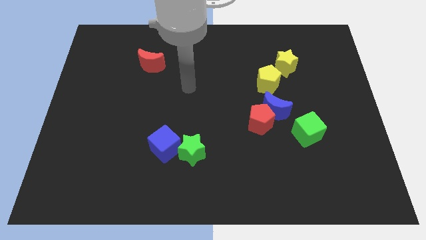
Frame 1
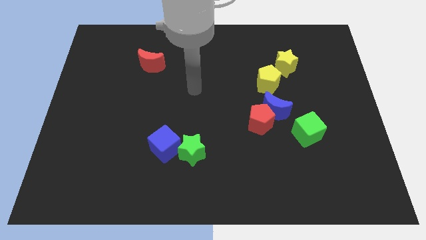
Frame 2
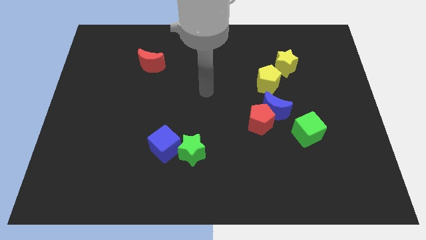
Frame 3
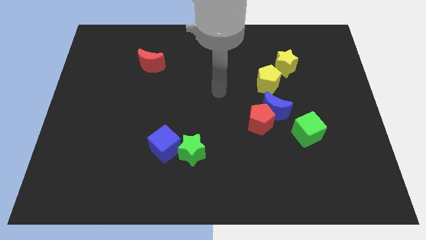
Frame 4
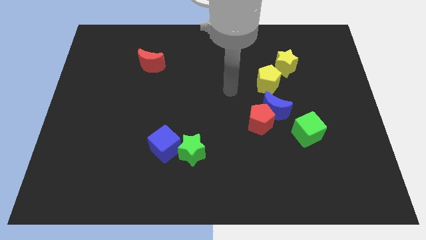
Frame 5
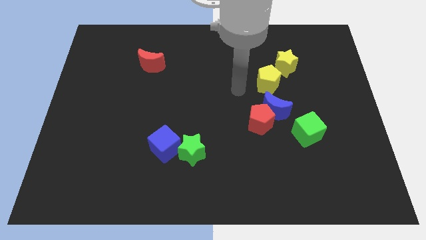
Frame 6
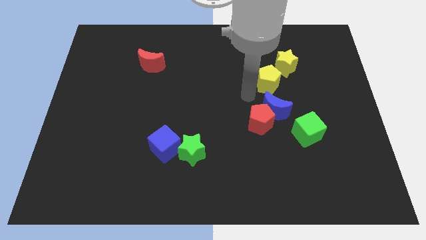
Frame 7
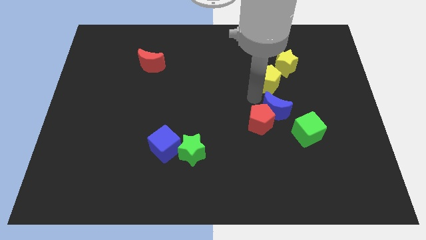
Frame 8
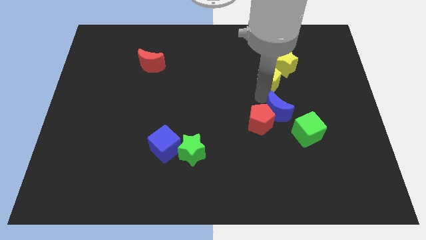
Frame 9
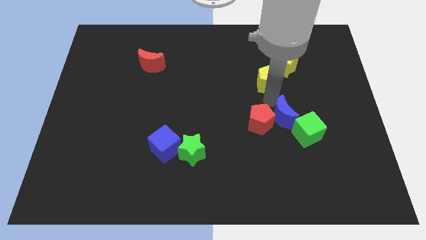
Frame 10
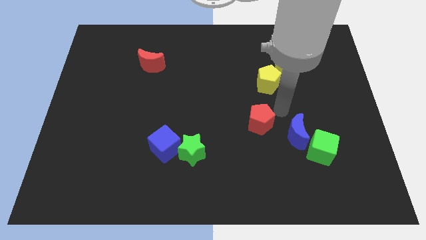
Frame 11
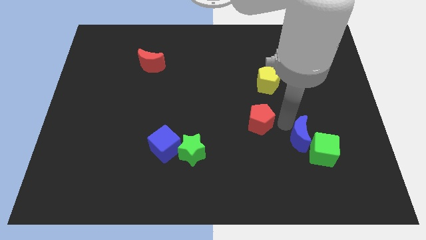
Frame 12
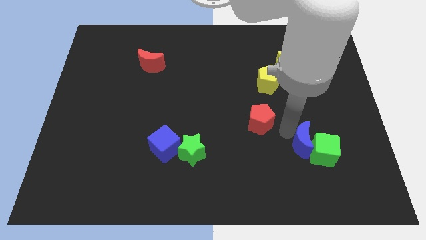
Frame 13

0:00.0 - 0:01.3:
separate the red pentagon from the blue moon

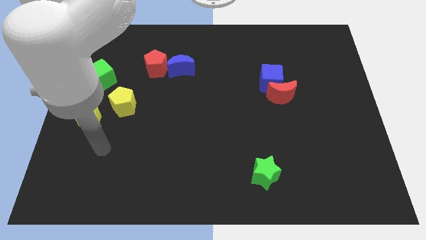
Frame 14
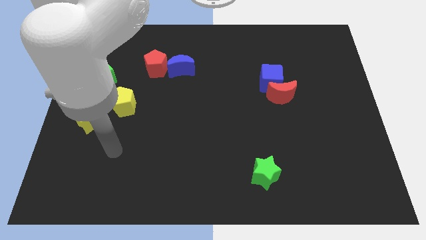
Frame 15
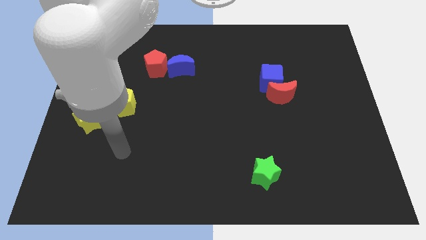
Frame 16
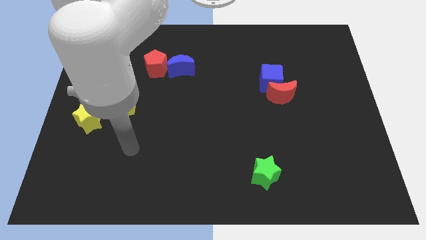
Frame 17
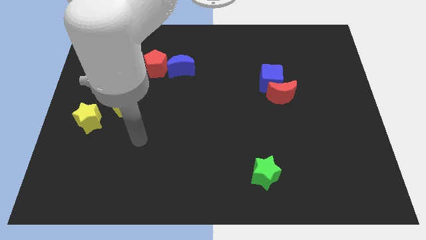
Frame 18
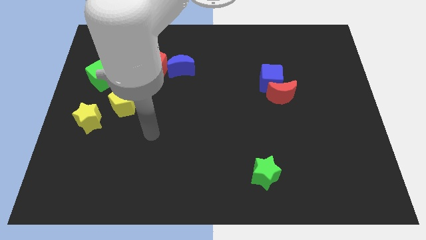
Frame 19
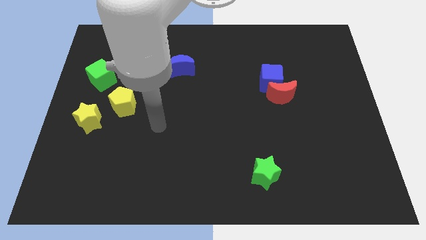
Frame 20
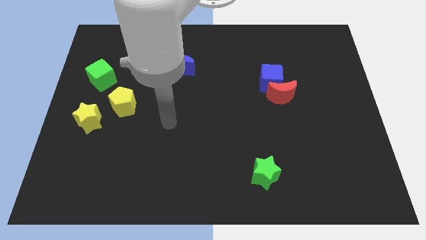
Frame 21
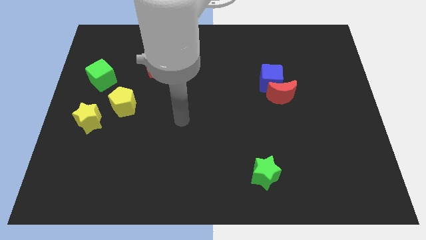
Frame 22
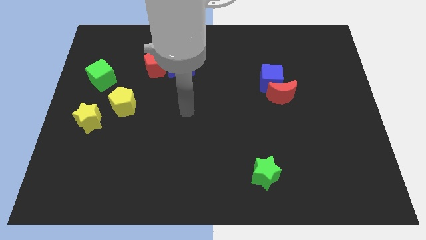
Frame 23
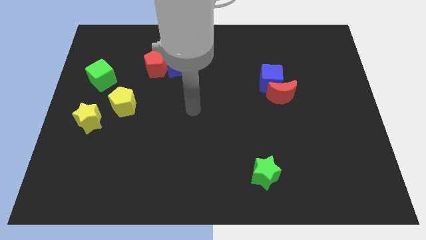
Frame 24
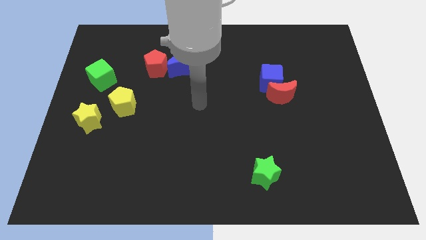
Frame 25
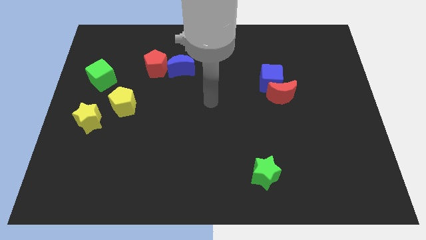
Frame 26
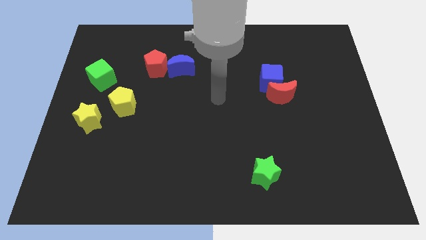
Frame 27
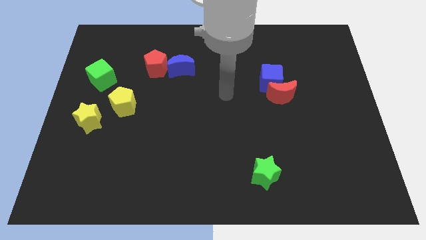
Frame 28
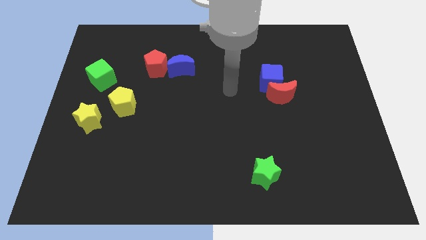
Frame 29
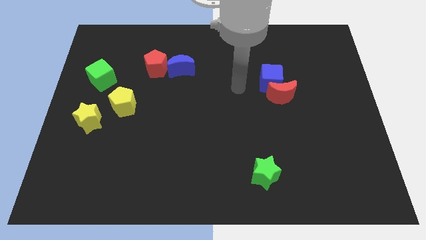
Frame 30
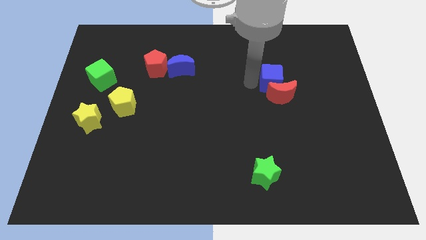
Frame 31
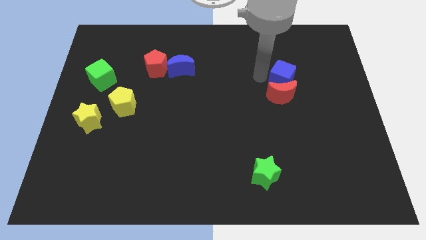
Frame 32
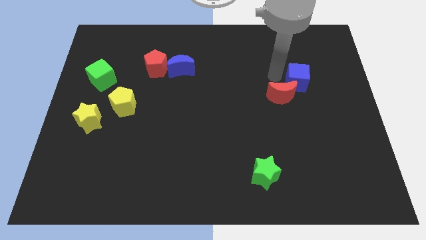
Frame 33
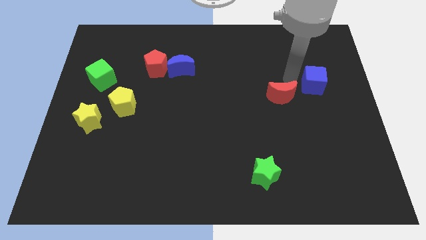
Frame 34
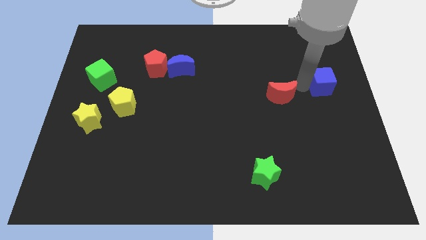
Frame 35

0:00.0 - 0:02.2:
separate the red moon from the blue cube

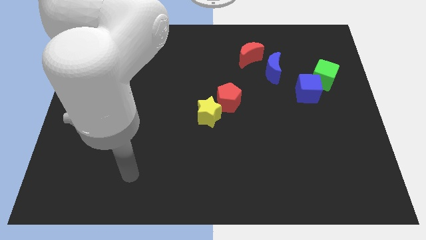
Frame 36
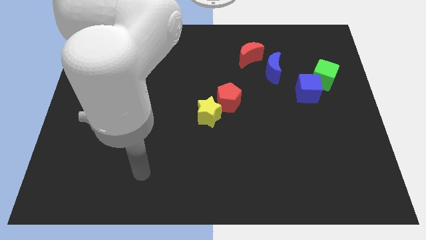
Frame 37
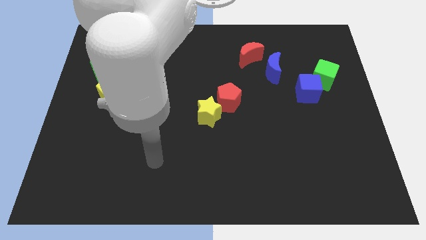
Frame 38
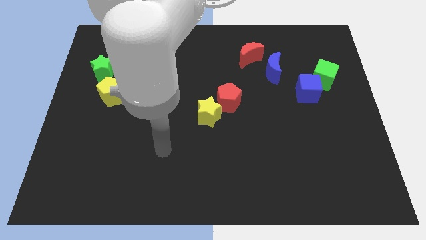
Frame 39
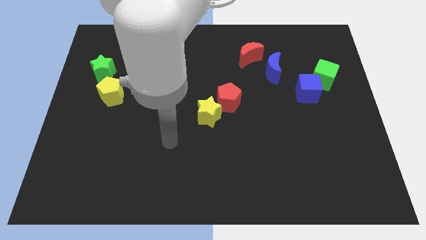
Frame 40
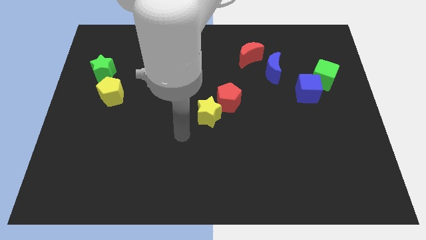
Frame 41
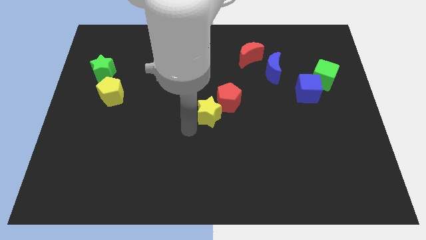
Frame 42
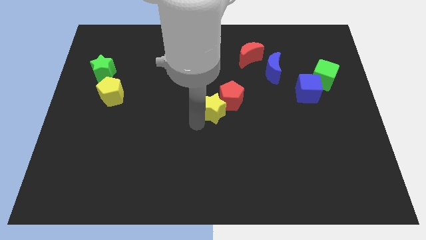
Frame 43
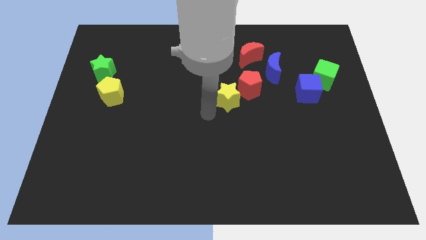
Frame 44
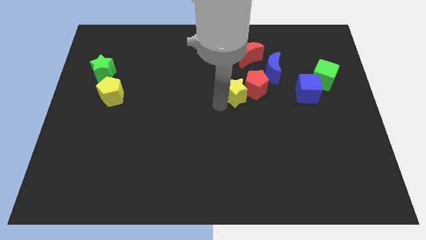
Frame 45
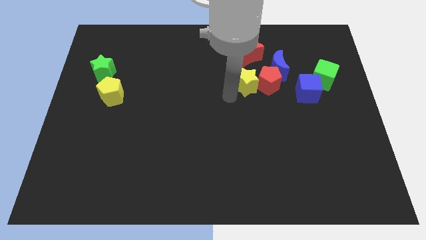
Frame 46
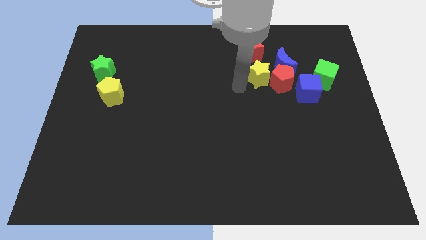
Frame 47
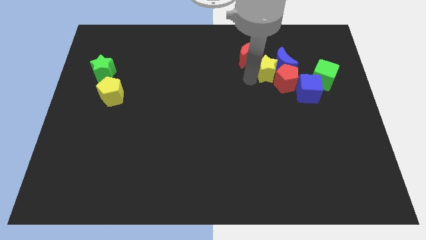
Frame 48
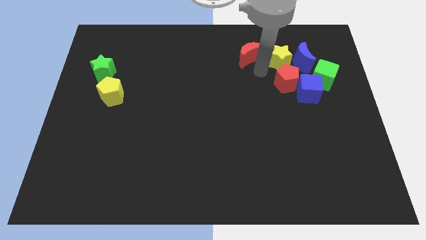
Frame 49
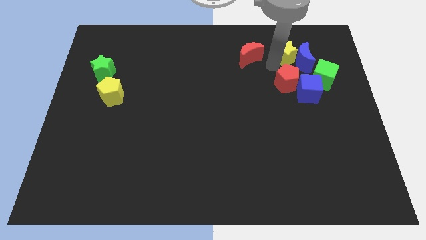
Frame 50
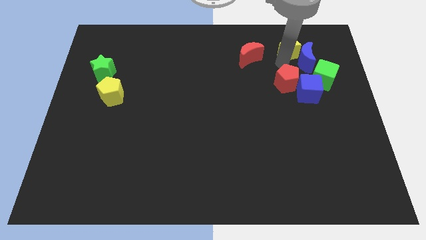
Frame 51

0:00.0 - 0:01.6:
move the red pentagon away from the yellow star

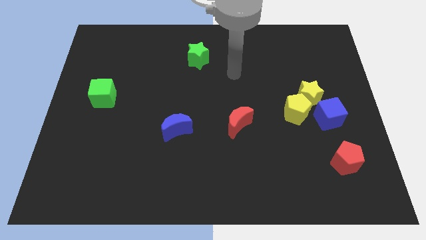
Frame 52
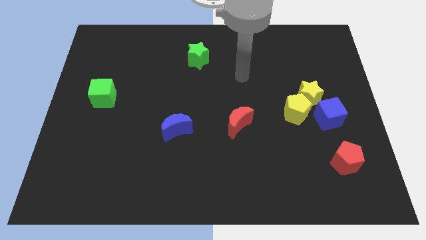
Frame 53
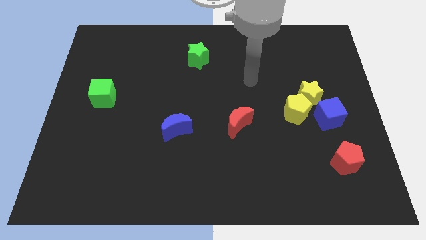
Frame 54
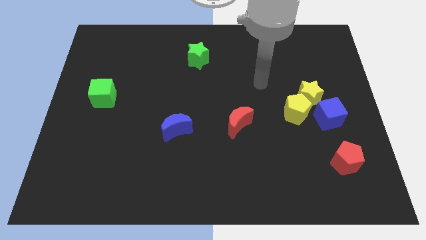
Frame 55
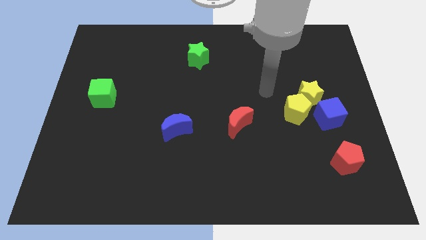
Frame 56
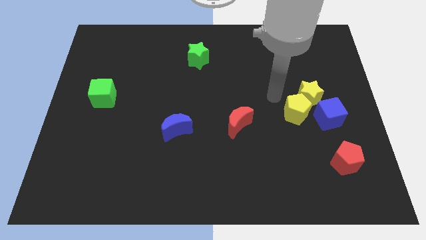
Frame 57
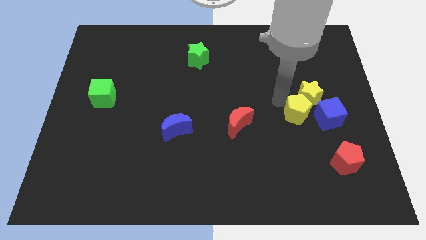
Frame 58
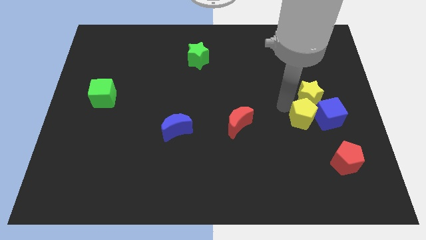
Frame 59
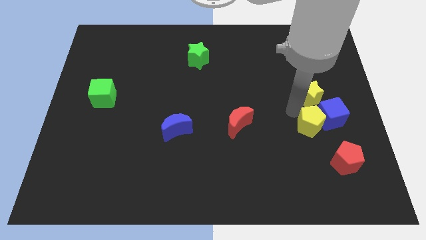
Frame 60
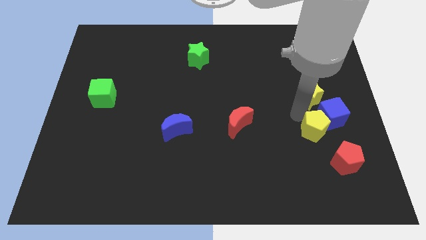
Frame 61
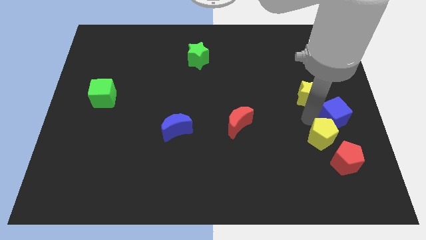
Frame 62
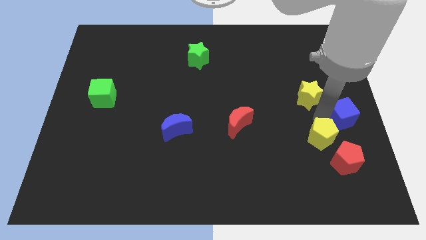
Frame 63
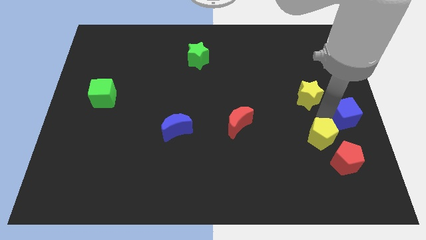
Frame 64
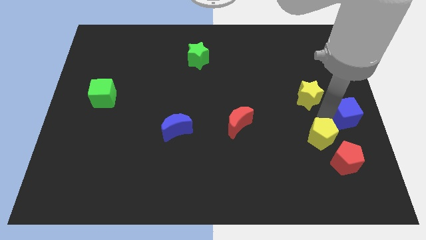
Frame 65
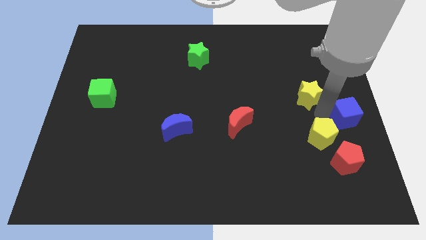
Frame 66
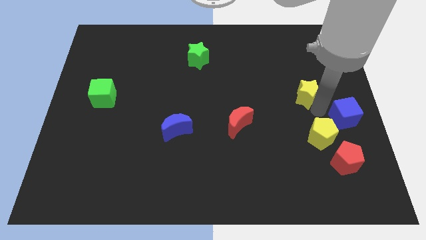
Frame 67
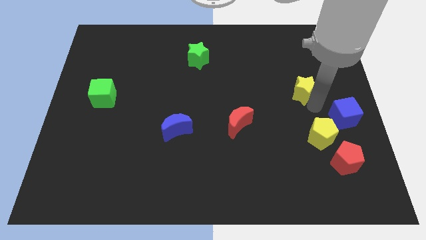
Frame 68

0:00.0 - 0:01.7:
move the yellow star away from the yellow pentagon and blue cube

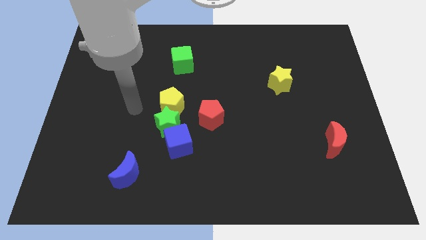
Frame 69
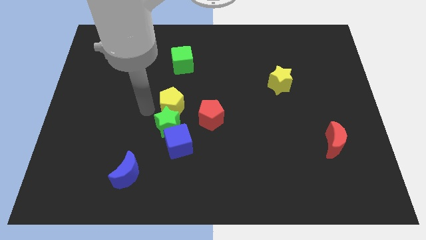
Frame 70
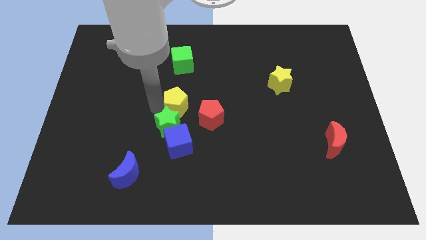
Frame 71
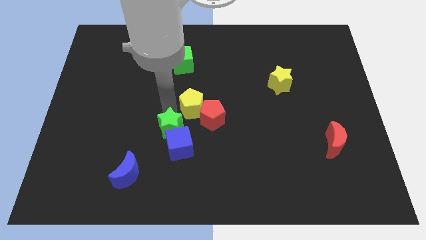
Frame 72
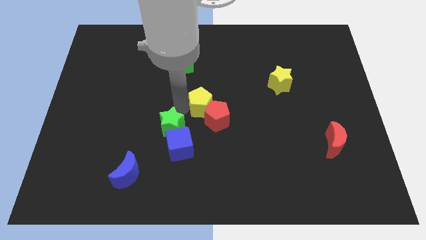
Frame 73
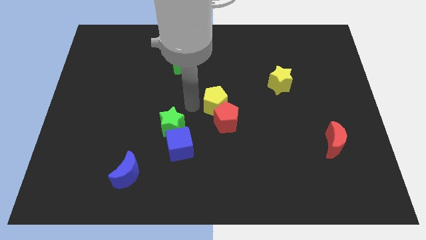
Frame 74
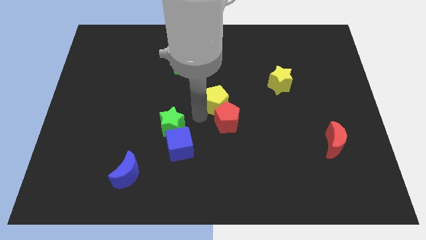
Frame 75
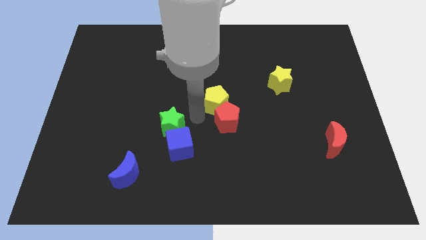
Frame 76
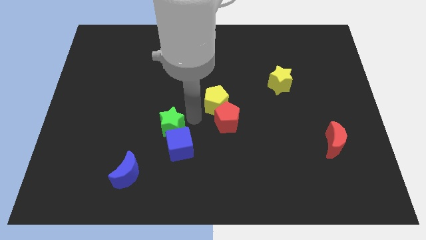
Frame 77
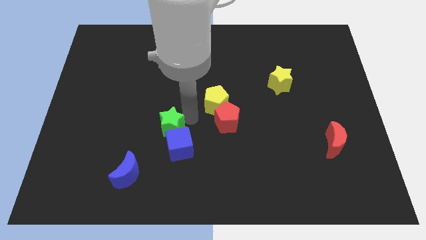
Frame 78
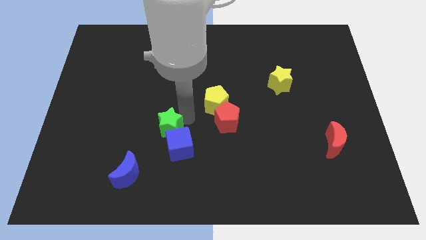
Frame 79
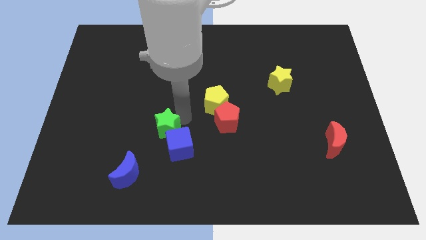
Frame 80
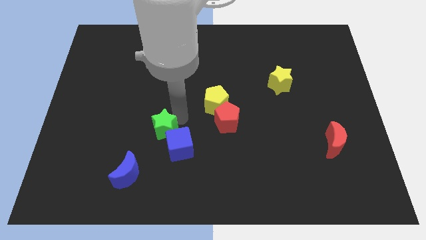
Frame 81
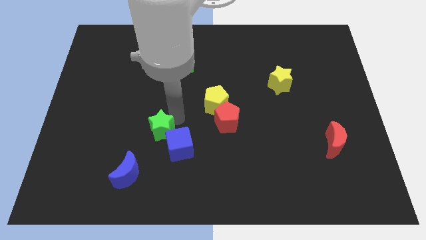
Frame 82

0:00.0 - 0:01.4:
move the green star away from the group of blocks

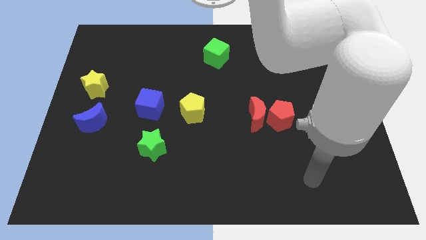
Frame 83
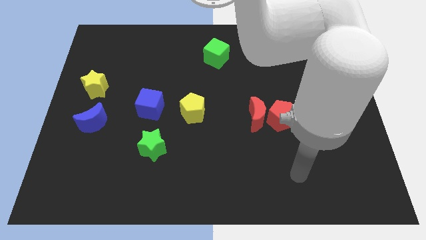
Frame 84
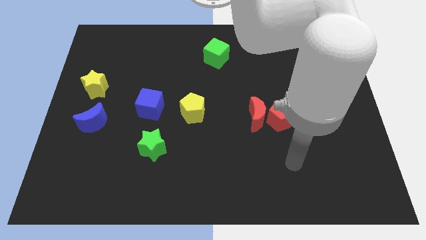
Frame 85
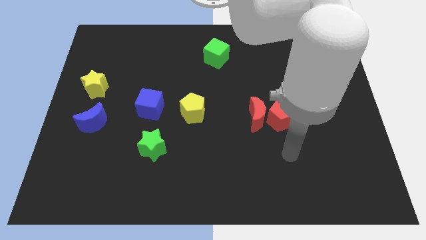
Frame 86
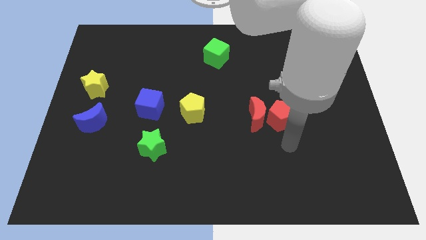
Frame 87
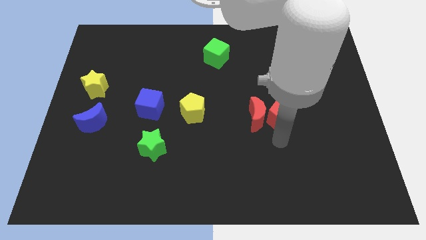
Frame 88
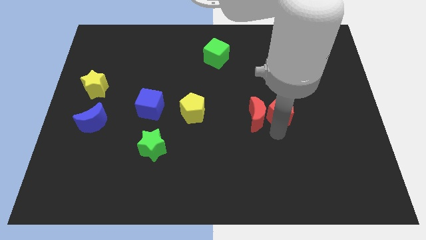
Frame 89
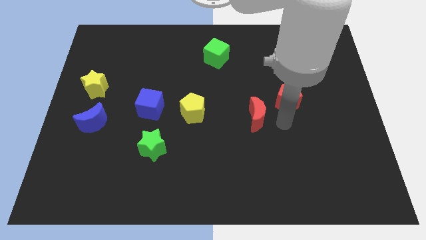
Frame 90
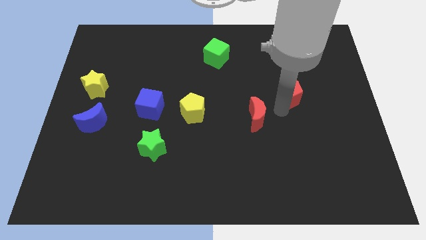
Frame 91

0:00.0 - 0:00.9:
move the red moon away from the red pentagon

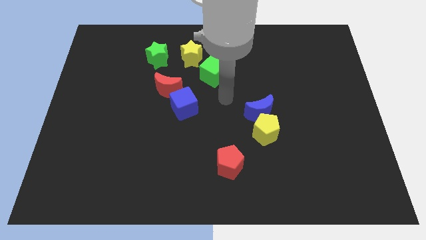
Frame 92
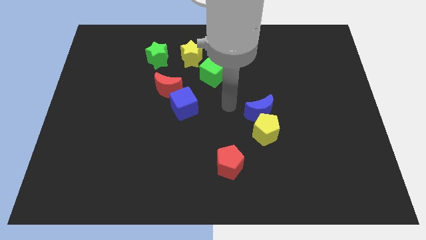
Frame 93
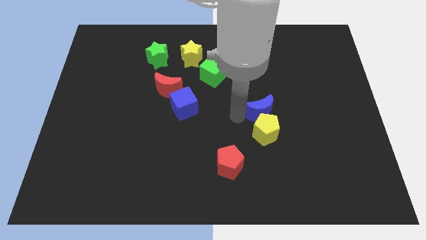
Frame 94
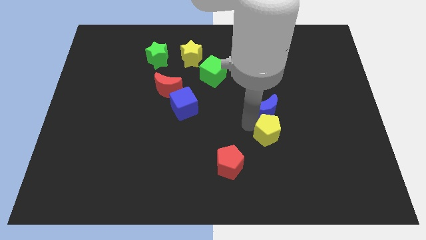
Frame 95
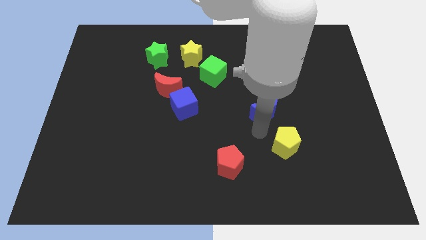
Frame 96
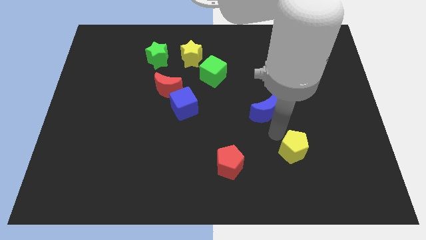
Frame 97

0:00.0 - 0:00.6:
separate the blue moon from the yellow pentagon
